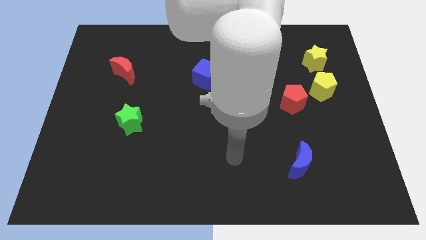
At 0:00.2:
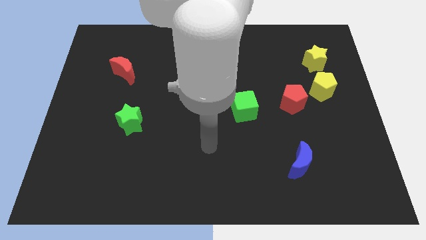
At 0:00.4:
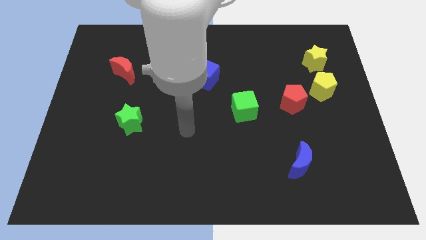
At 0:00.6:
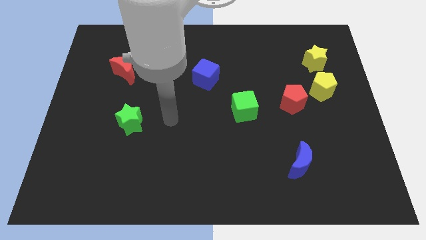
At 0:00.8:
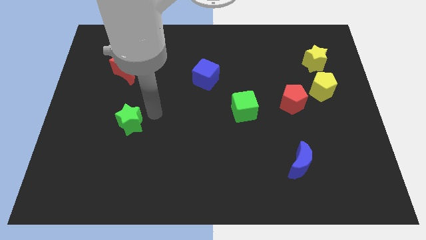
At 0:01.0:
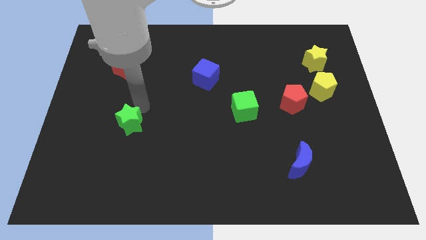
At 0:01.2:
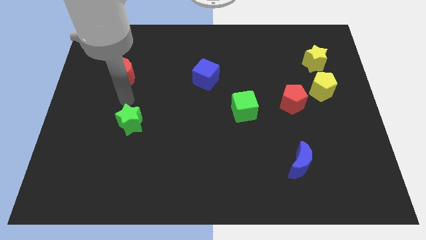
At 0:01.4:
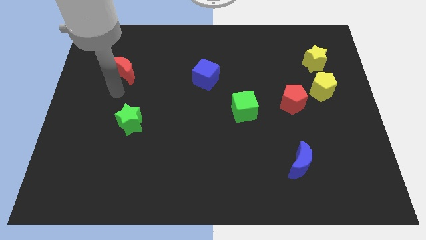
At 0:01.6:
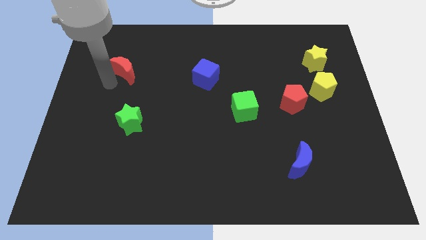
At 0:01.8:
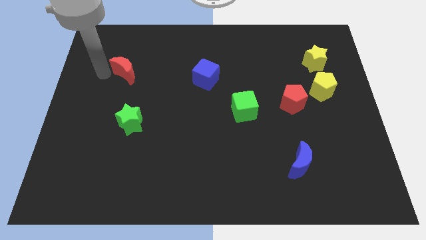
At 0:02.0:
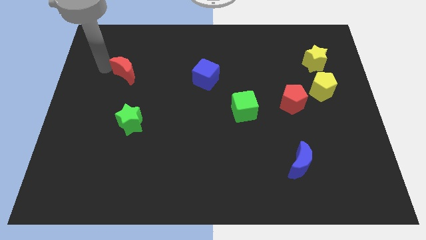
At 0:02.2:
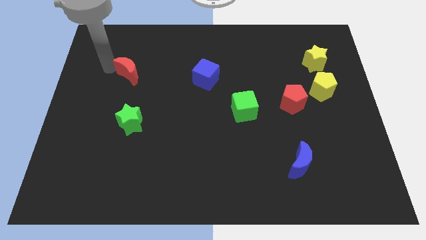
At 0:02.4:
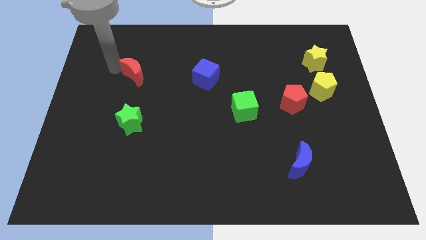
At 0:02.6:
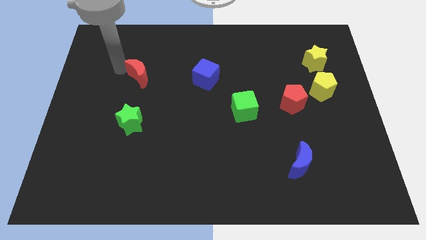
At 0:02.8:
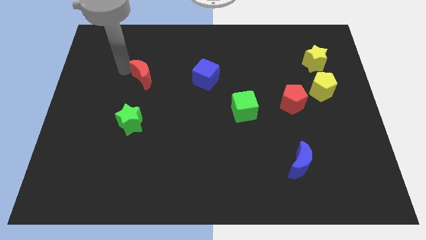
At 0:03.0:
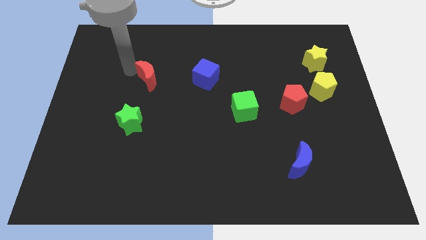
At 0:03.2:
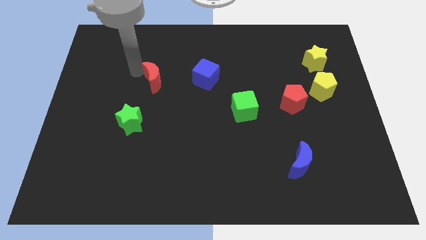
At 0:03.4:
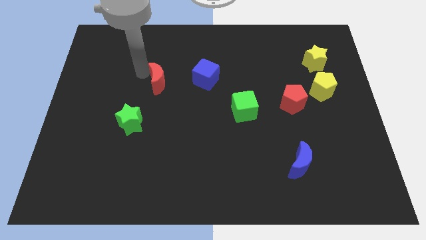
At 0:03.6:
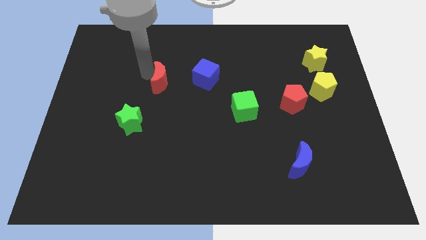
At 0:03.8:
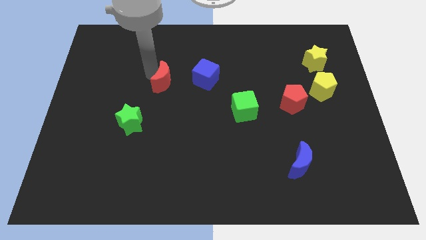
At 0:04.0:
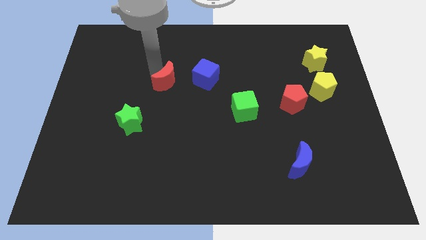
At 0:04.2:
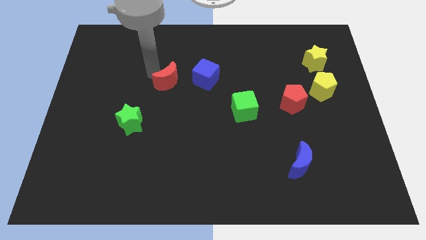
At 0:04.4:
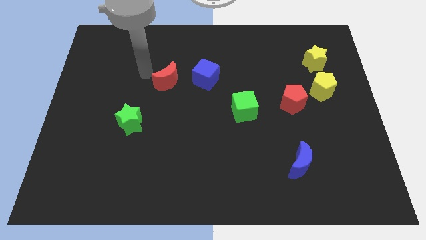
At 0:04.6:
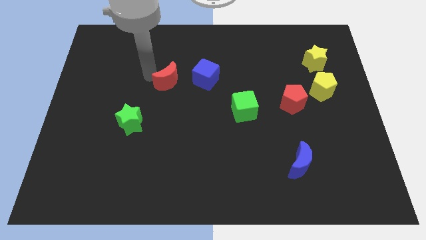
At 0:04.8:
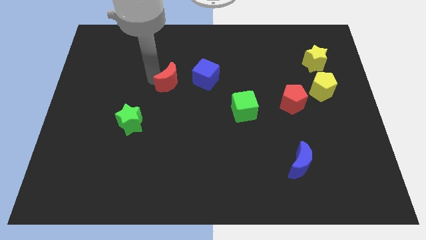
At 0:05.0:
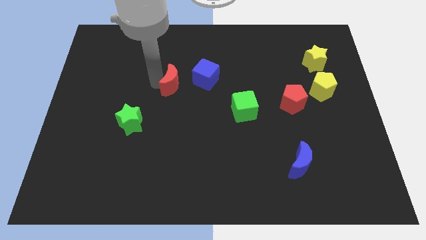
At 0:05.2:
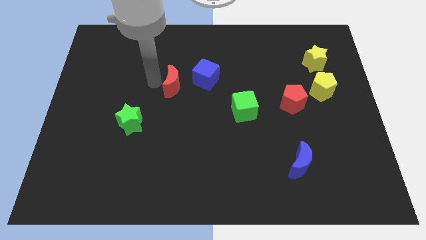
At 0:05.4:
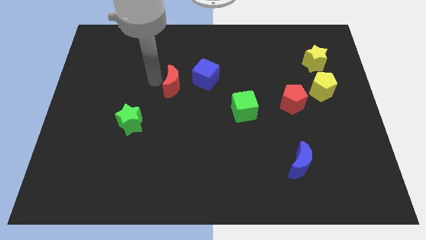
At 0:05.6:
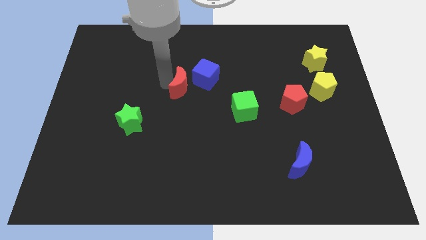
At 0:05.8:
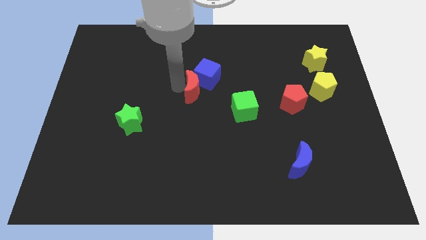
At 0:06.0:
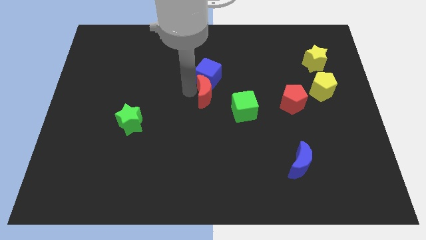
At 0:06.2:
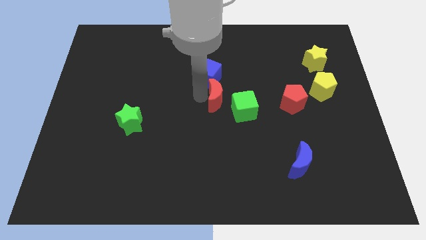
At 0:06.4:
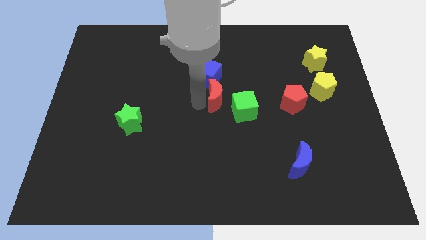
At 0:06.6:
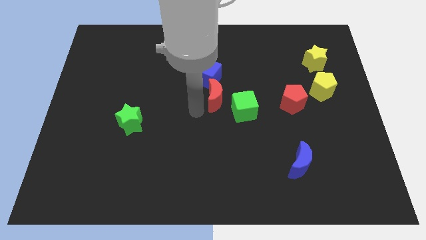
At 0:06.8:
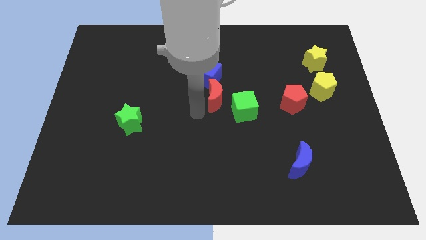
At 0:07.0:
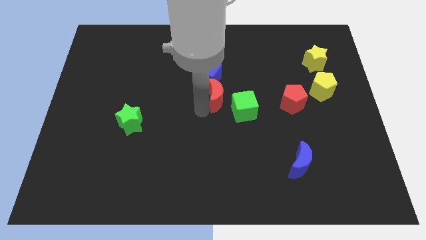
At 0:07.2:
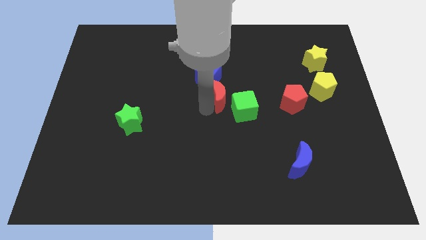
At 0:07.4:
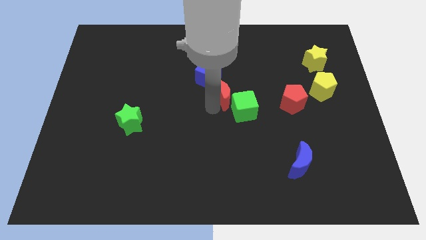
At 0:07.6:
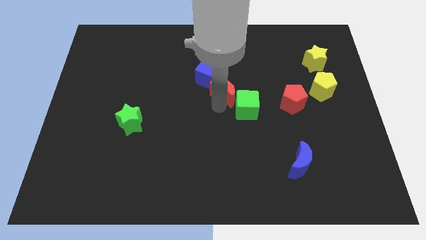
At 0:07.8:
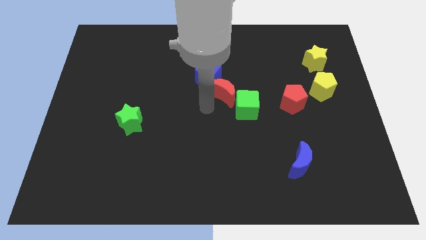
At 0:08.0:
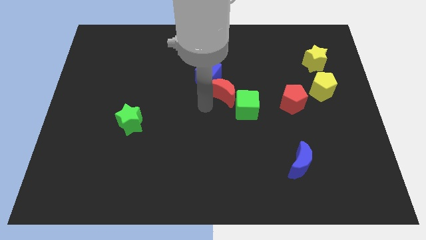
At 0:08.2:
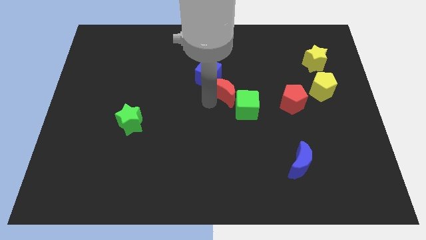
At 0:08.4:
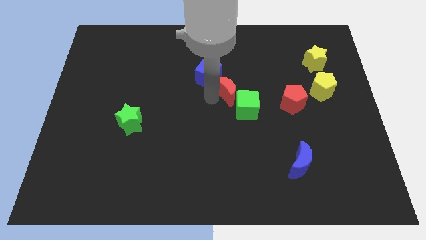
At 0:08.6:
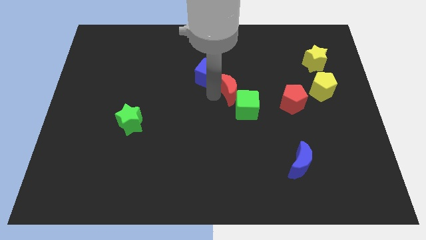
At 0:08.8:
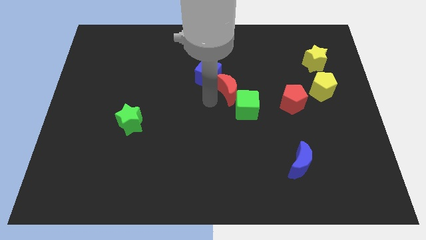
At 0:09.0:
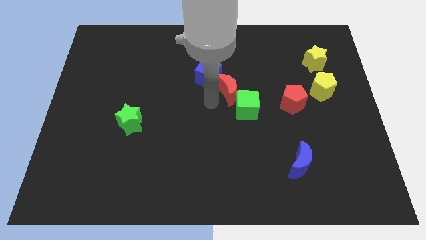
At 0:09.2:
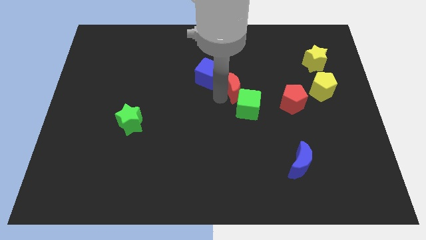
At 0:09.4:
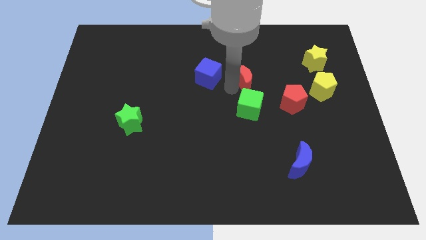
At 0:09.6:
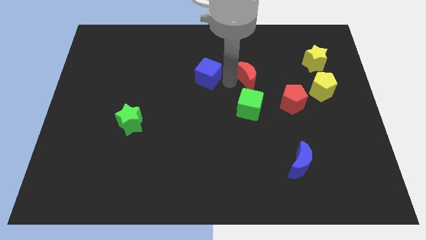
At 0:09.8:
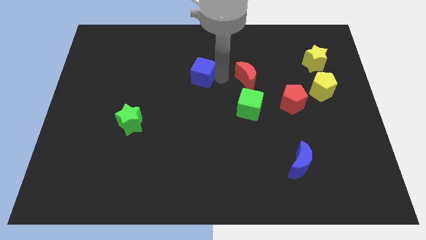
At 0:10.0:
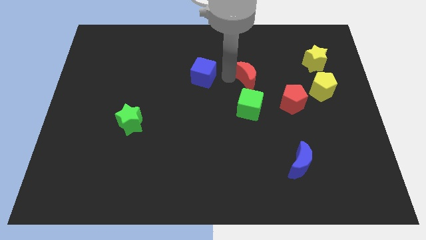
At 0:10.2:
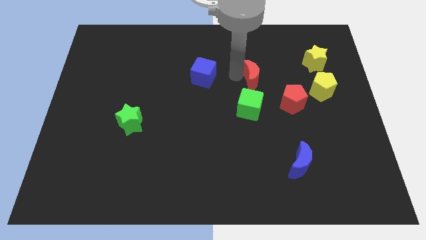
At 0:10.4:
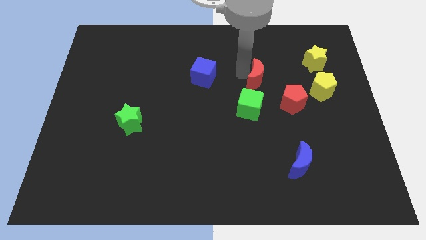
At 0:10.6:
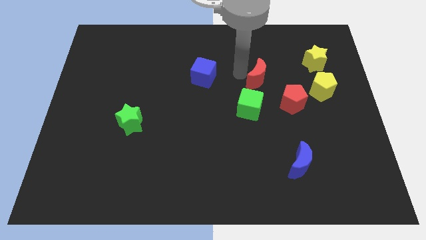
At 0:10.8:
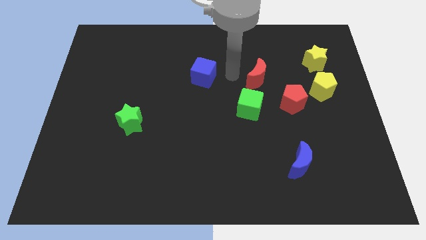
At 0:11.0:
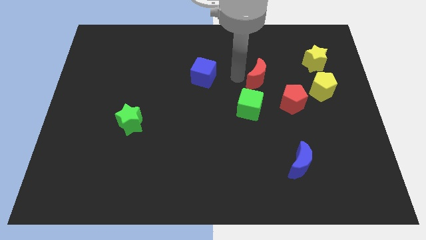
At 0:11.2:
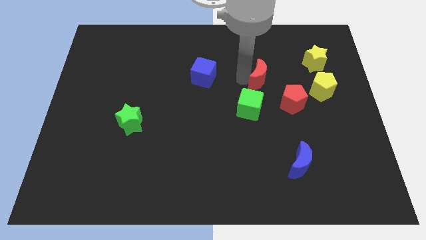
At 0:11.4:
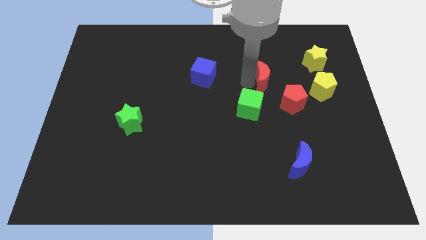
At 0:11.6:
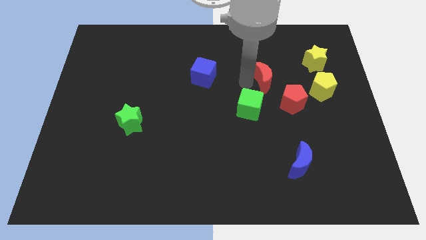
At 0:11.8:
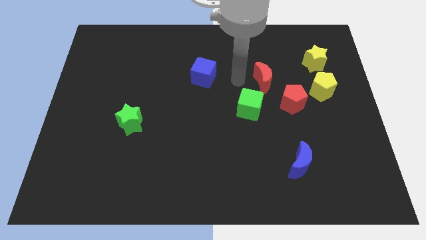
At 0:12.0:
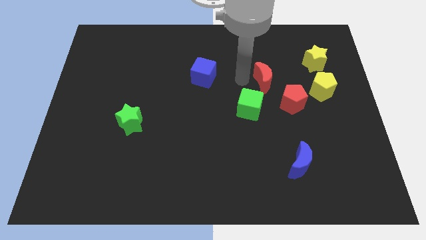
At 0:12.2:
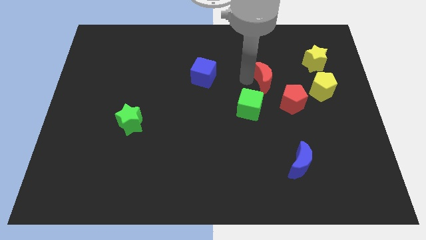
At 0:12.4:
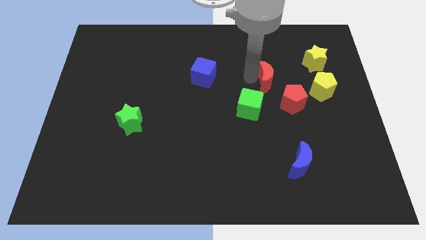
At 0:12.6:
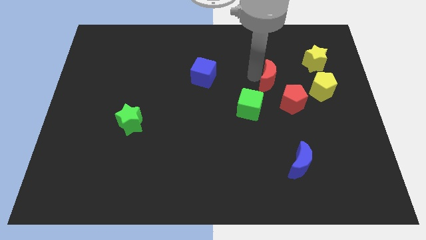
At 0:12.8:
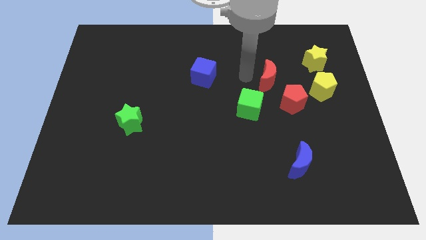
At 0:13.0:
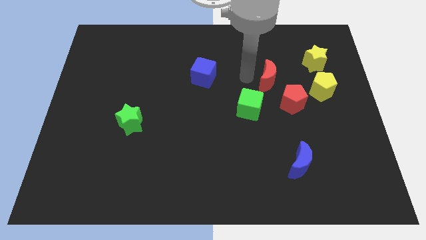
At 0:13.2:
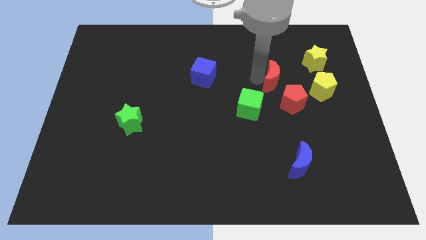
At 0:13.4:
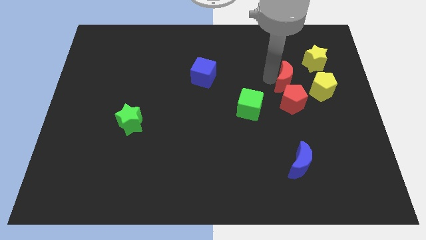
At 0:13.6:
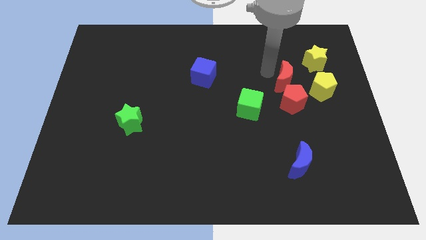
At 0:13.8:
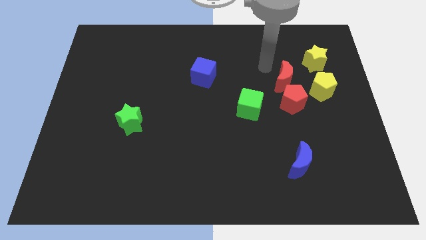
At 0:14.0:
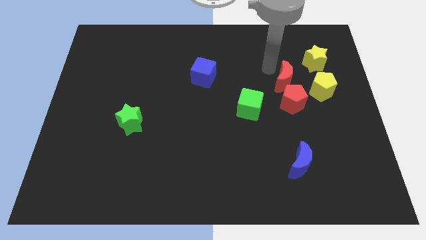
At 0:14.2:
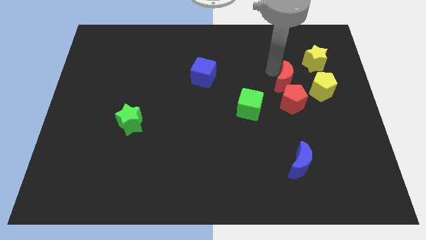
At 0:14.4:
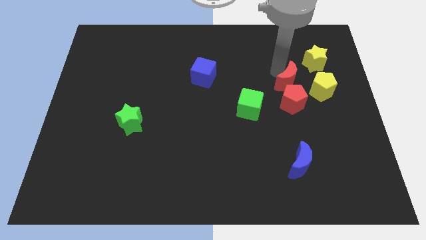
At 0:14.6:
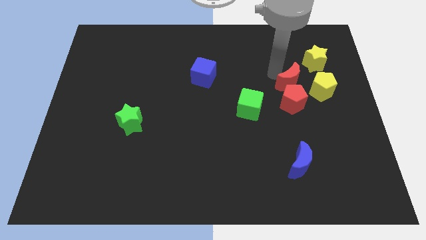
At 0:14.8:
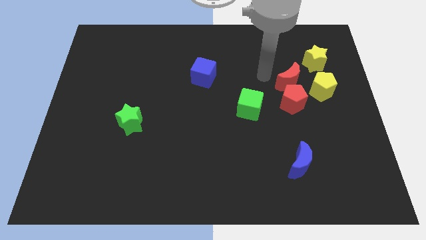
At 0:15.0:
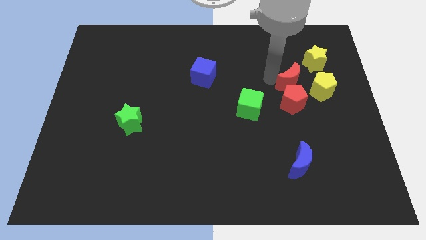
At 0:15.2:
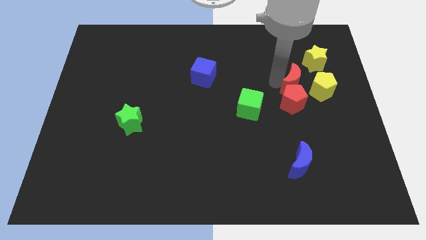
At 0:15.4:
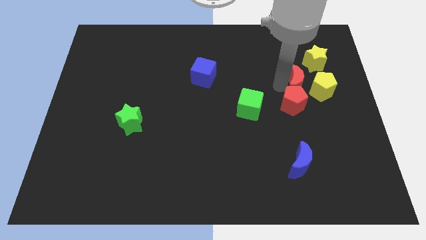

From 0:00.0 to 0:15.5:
put the red moon to the yellow pentagon
